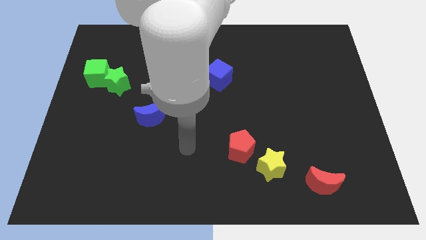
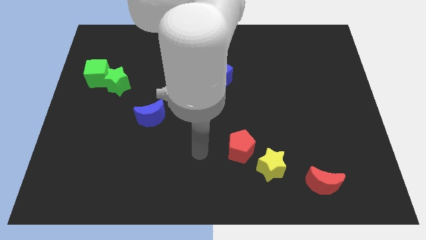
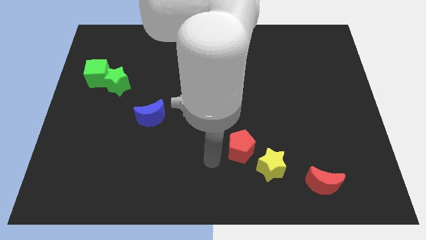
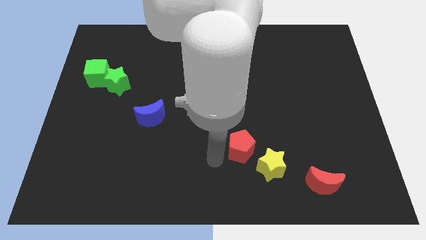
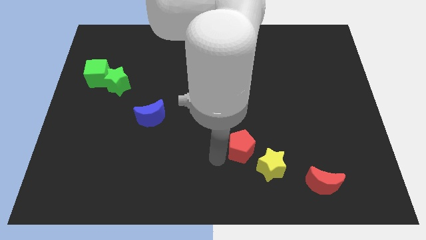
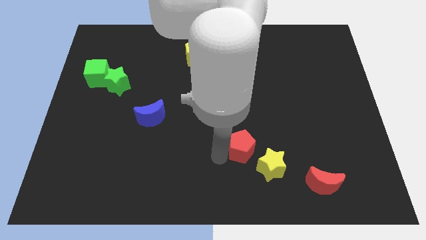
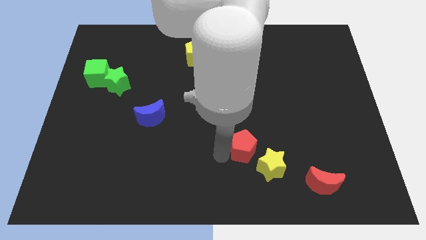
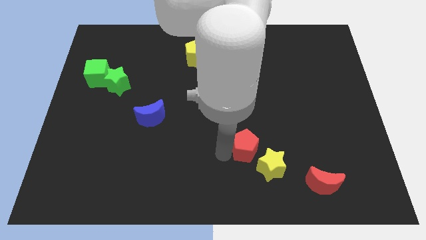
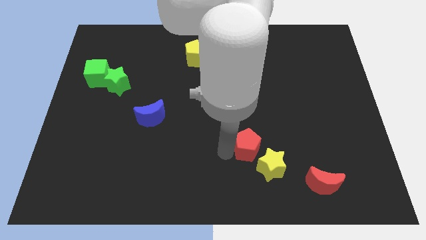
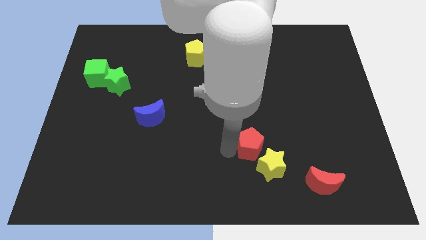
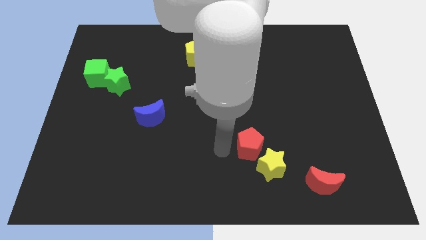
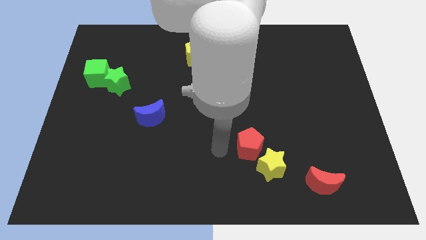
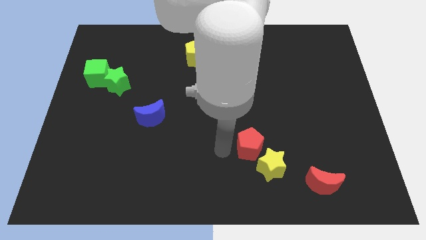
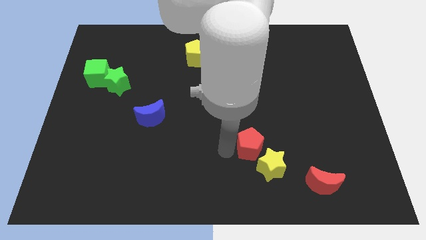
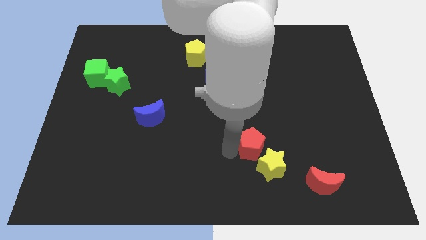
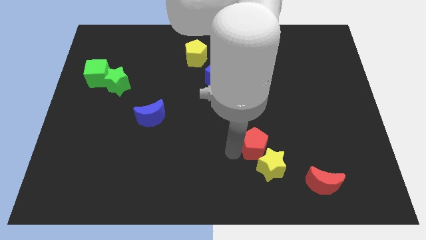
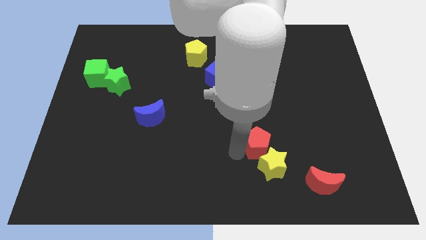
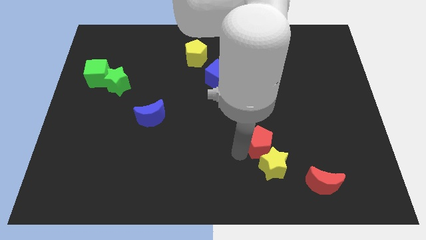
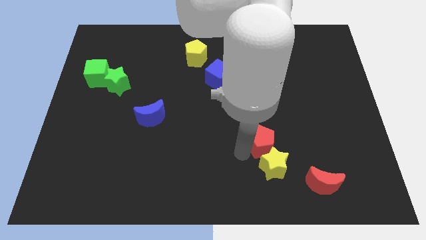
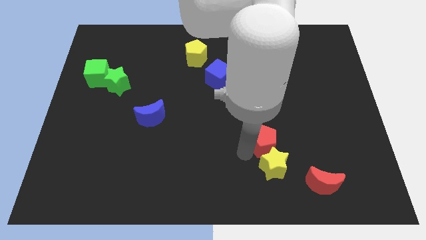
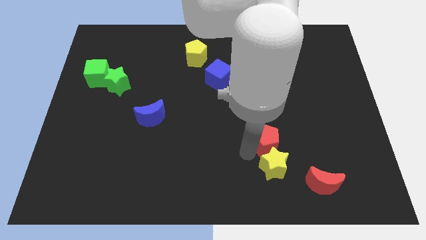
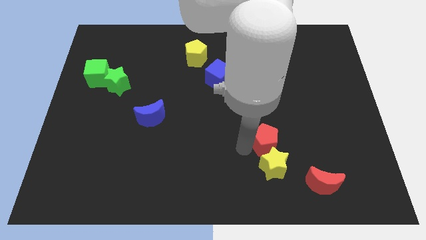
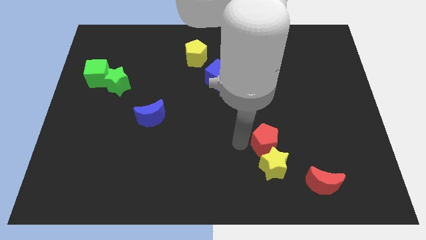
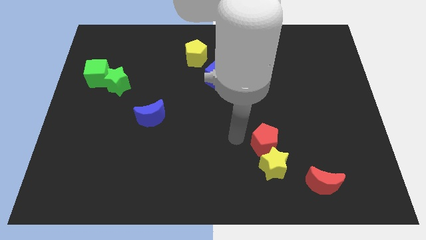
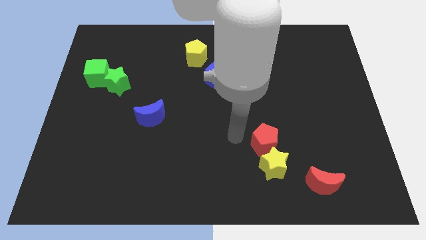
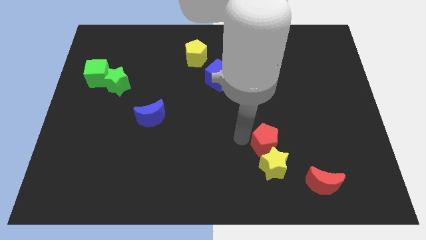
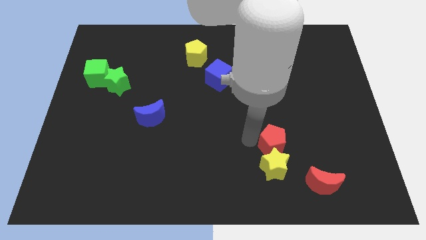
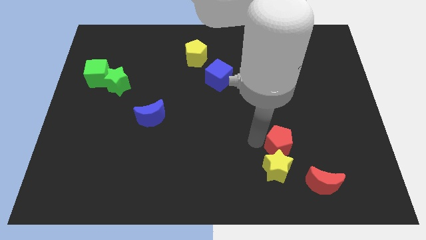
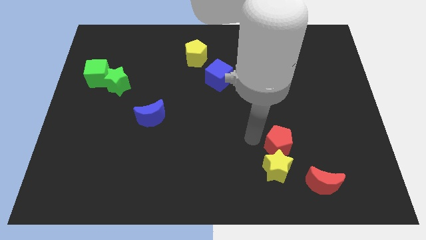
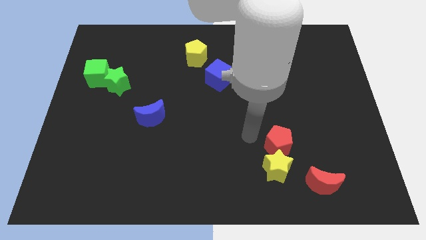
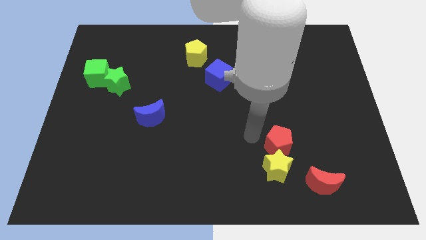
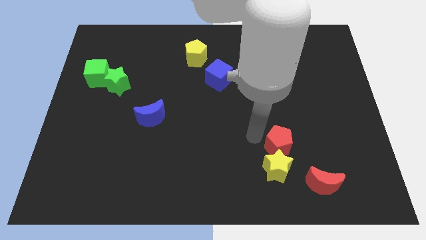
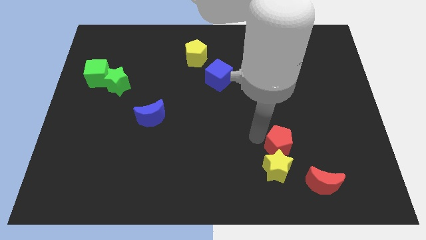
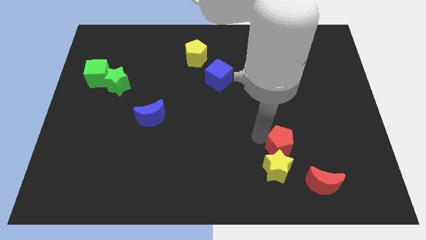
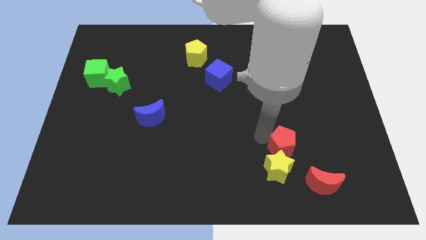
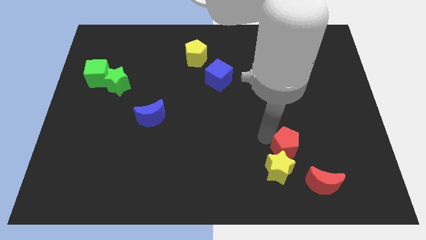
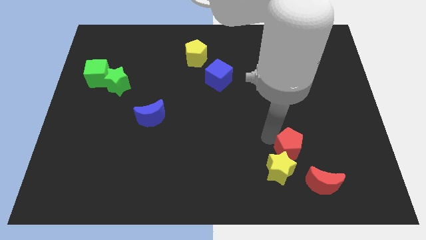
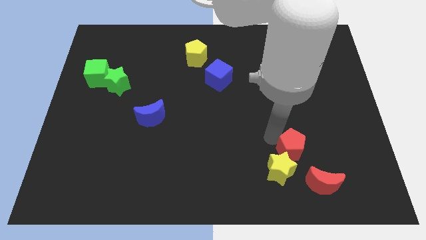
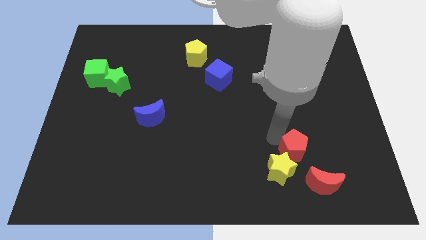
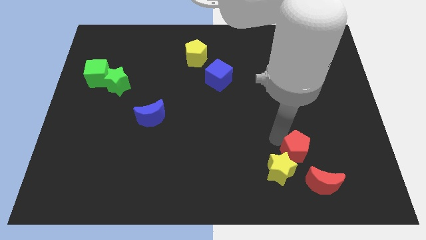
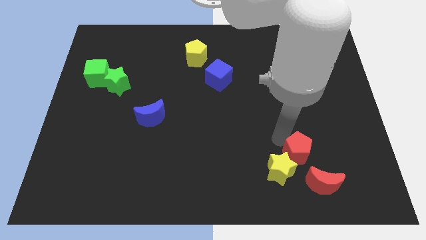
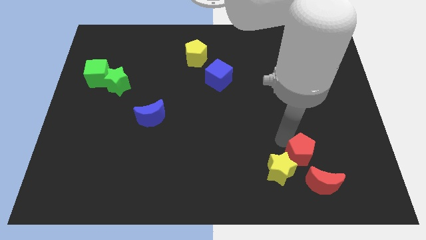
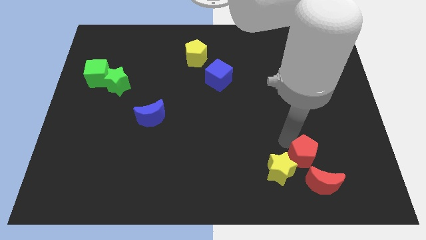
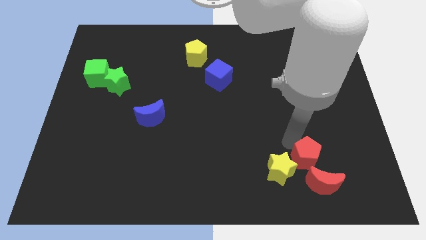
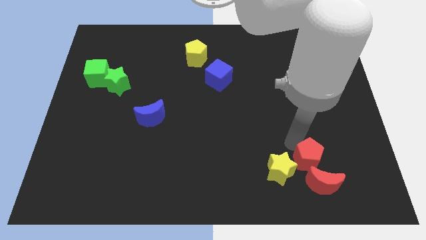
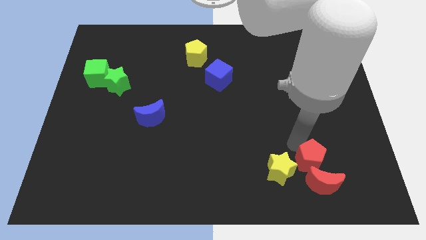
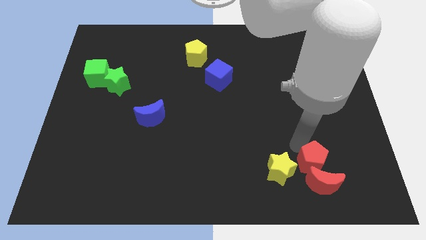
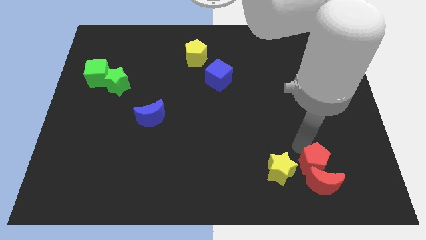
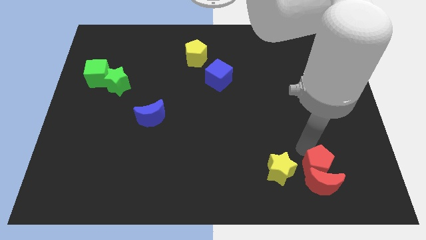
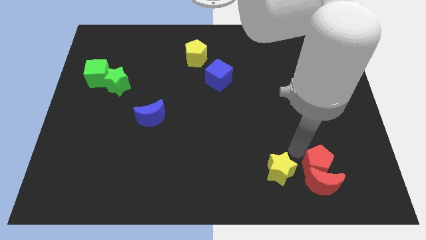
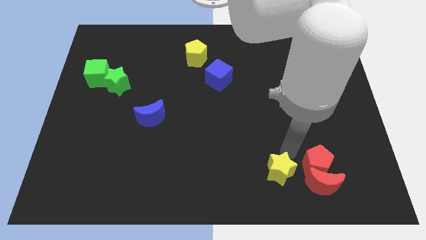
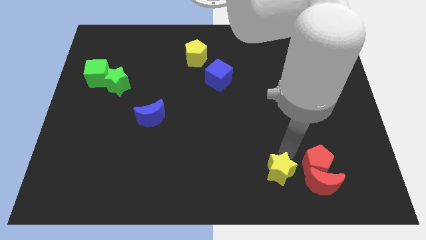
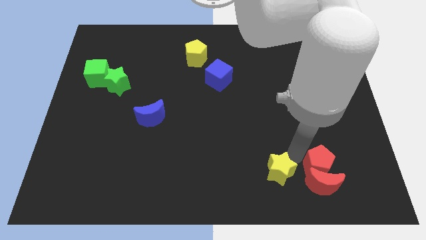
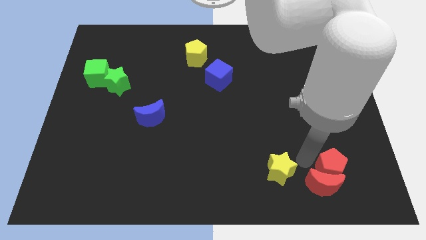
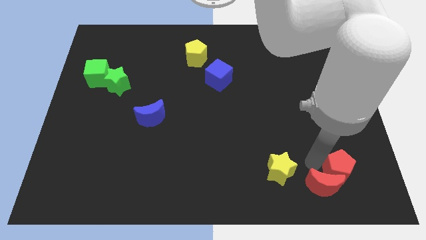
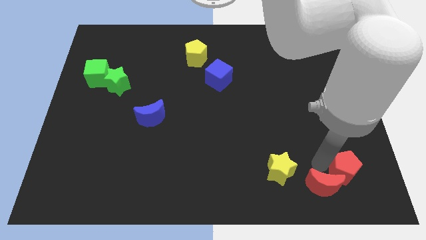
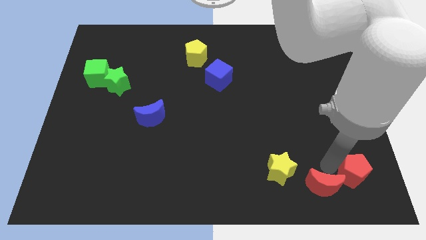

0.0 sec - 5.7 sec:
put the red pentagon to the bottom right of the board

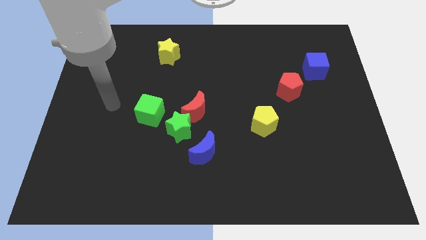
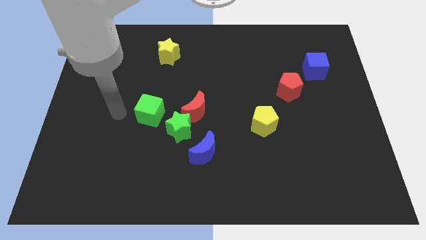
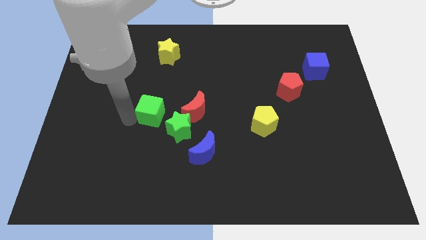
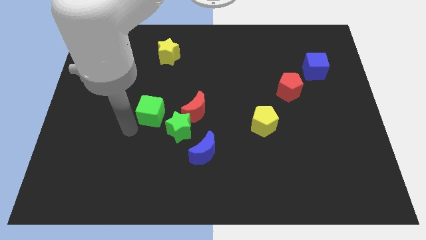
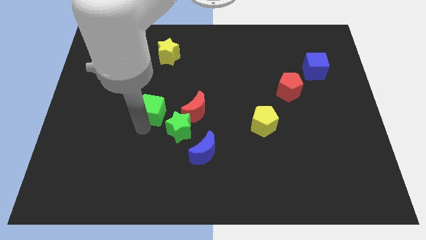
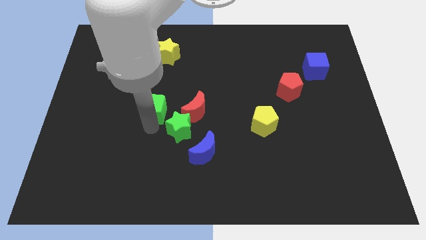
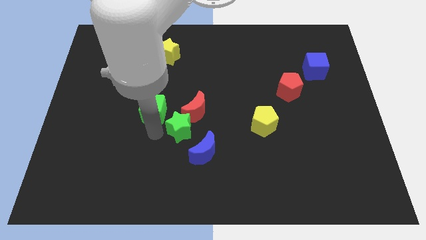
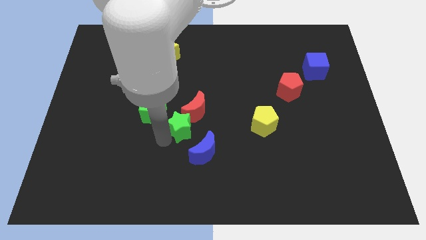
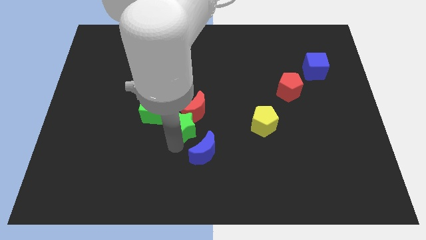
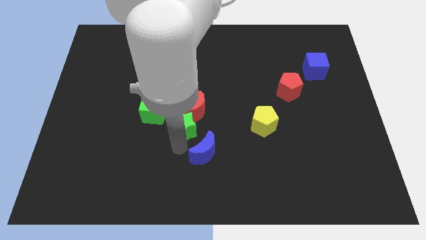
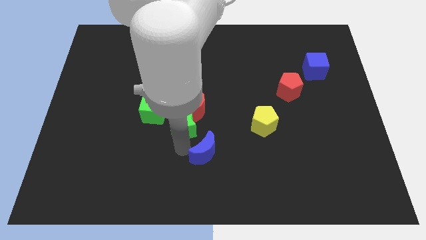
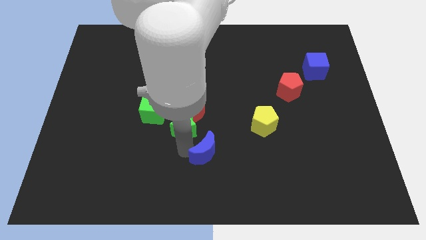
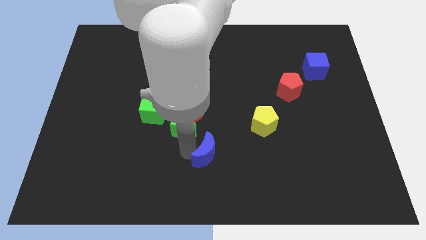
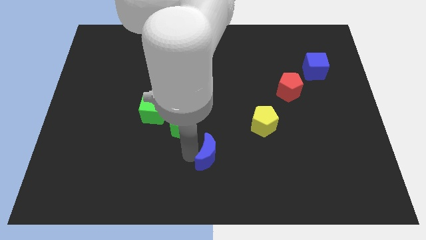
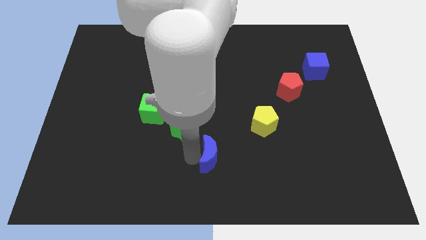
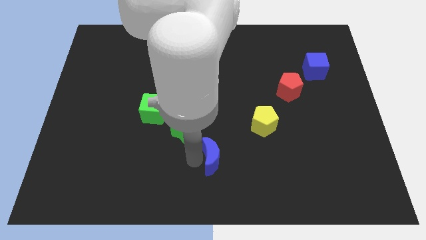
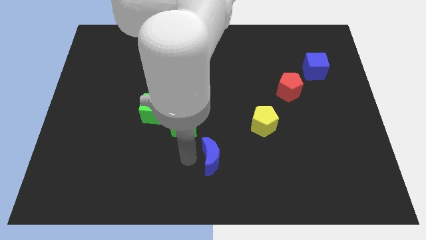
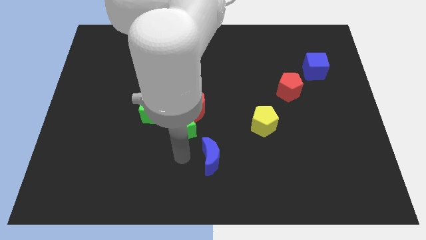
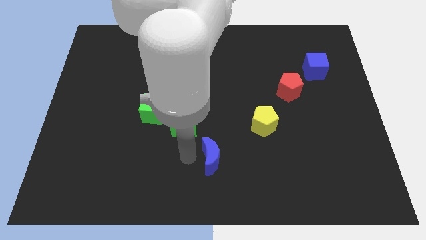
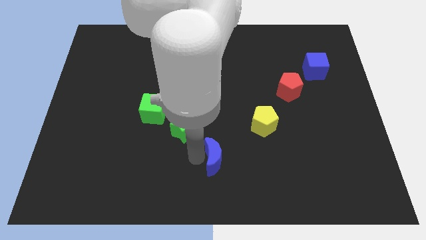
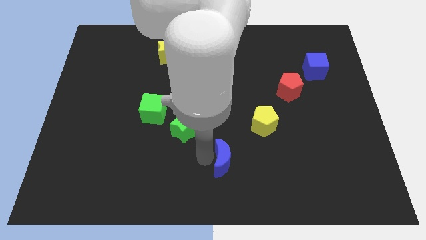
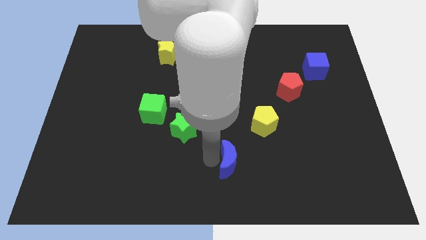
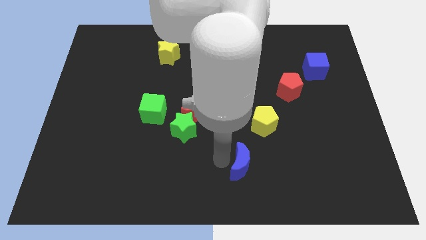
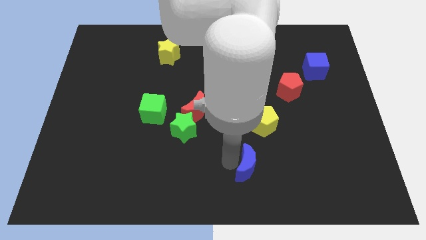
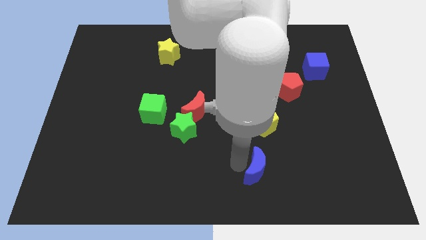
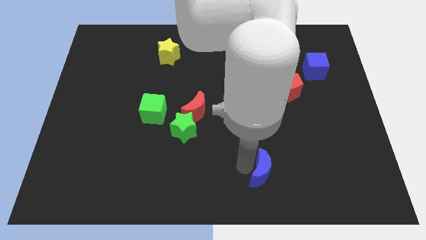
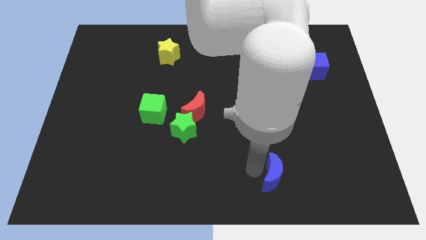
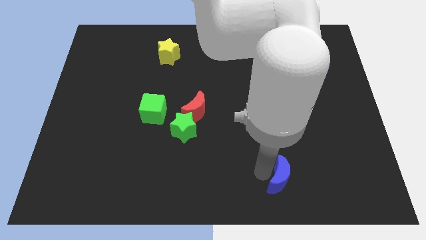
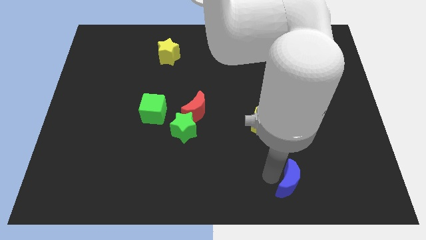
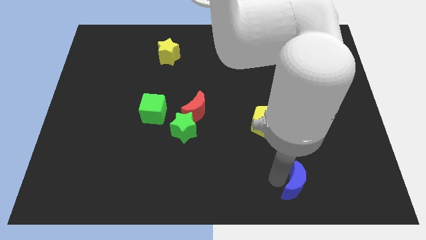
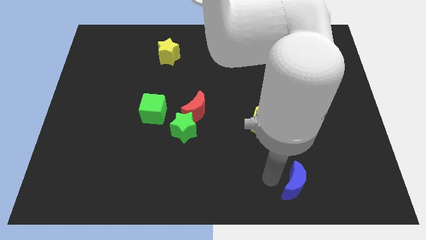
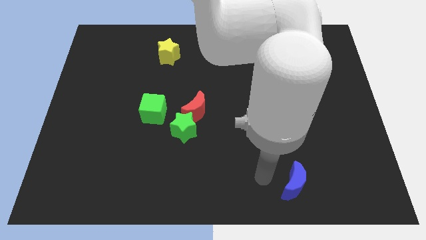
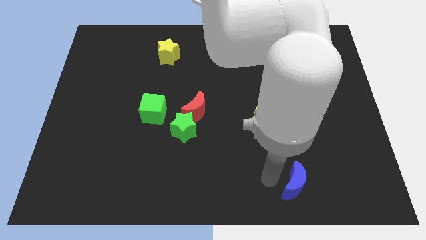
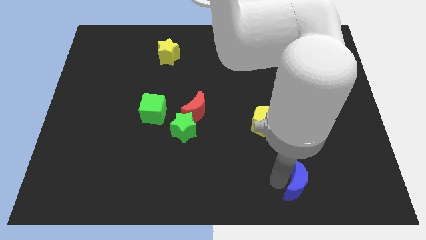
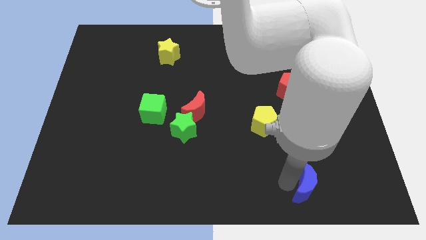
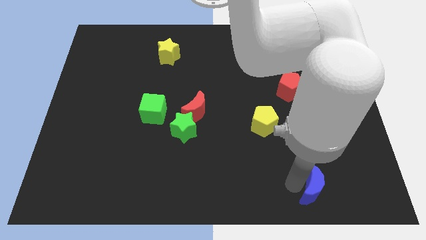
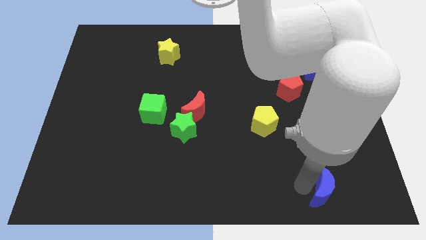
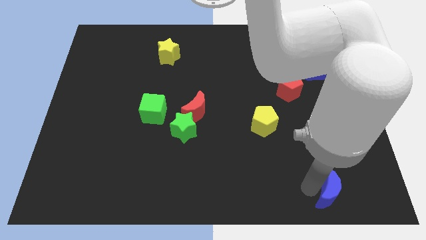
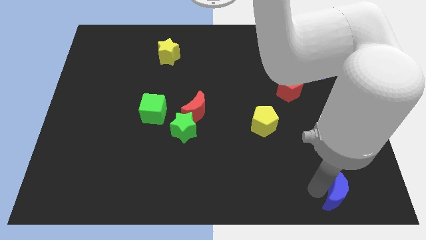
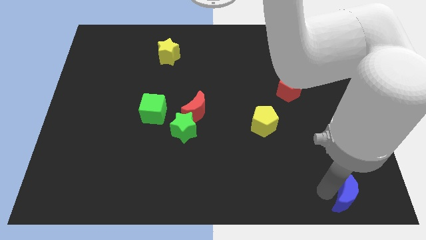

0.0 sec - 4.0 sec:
slide the blue moon to the bottom right
